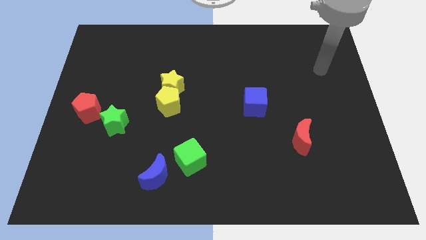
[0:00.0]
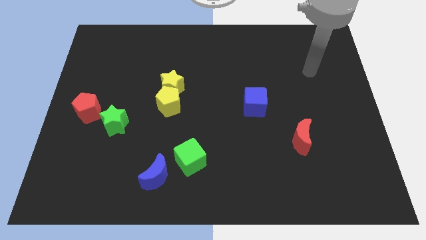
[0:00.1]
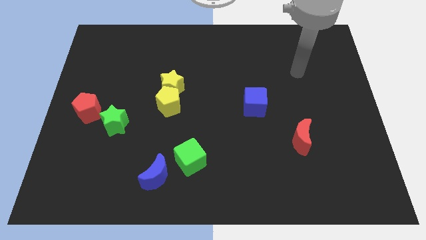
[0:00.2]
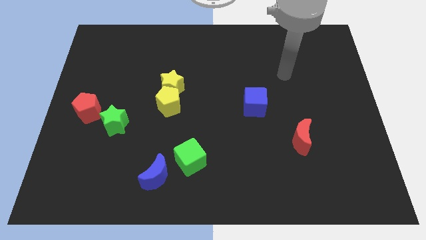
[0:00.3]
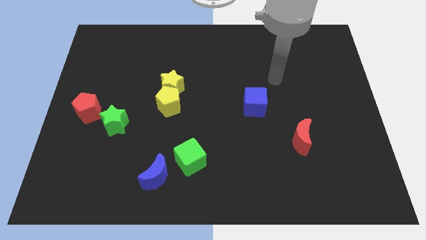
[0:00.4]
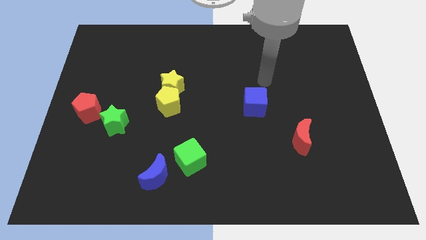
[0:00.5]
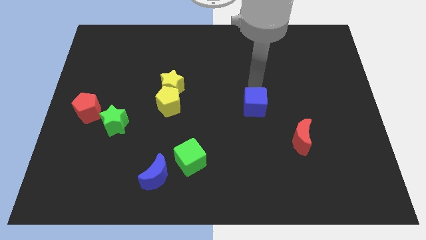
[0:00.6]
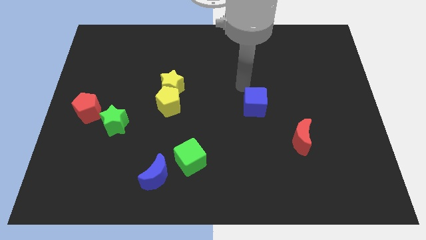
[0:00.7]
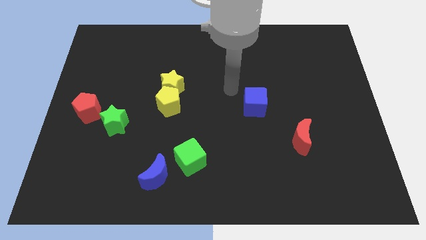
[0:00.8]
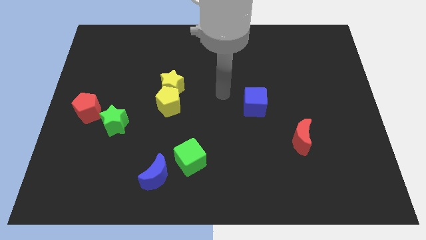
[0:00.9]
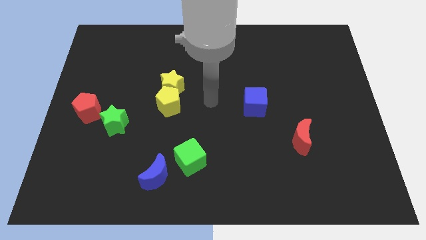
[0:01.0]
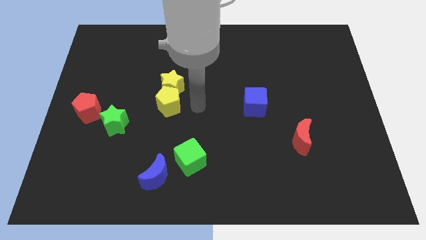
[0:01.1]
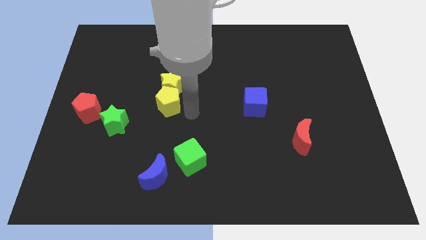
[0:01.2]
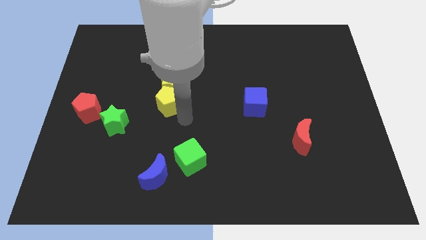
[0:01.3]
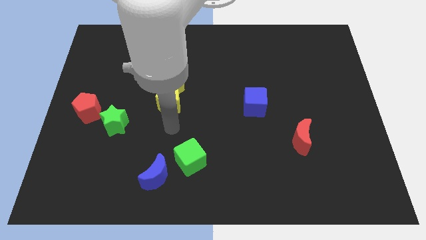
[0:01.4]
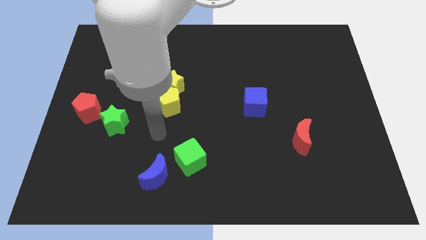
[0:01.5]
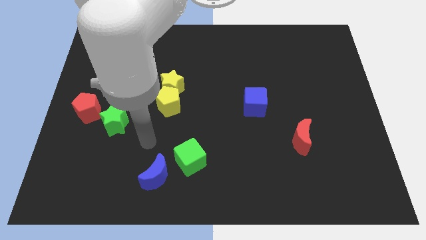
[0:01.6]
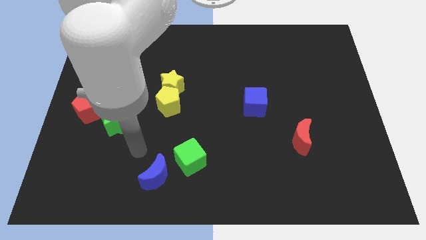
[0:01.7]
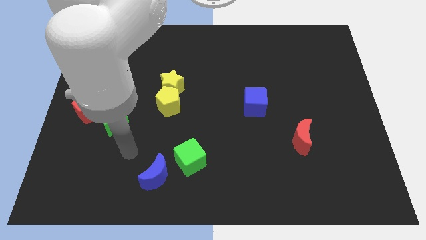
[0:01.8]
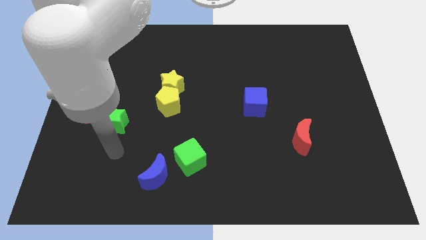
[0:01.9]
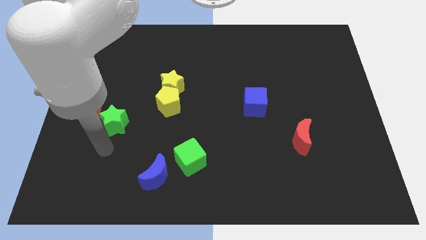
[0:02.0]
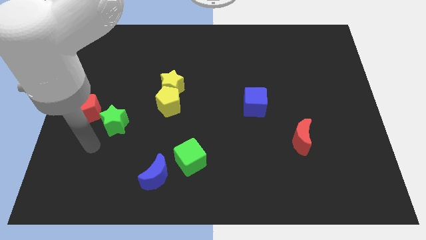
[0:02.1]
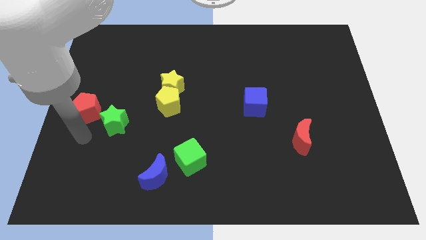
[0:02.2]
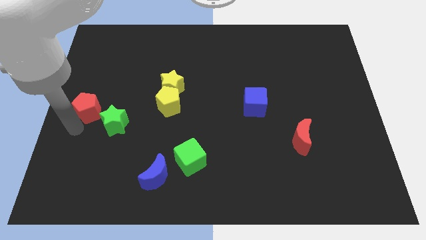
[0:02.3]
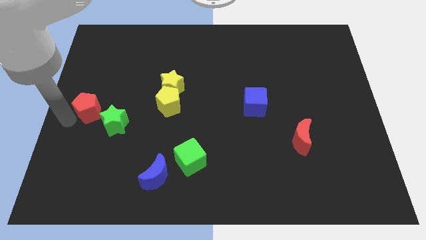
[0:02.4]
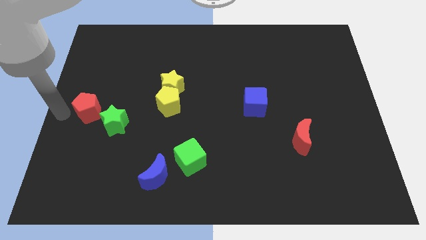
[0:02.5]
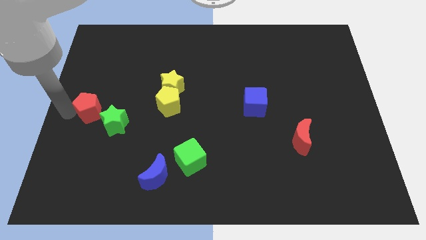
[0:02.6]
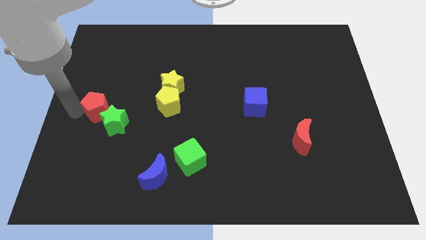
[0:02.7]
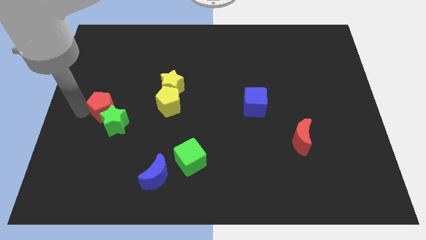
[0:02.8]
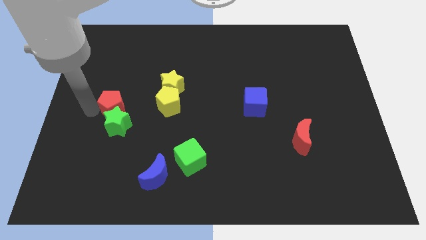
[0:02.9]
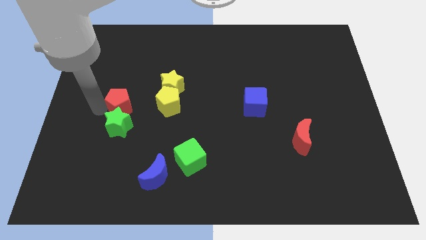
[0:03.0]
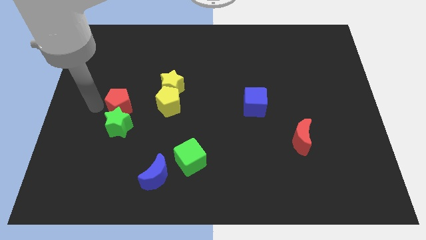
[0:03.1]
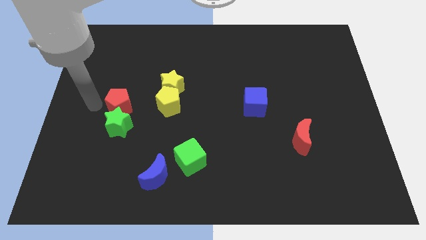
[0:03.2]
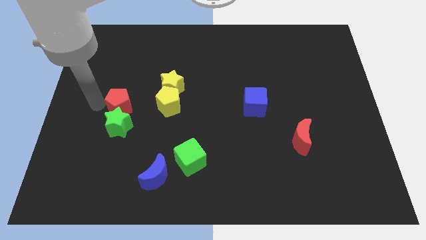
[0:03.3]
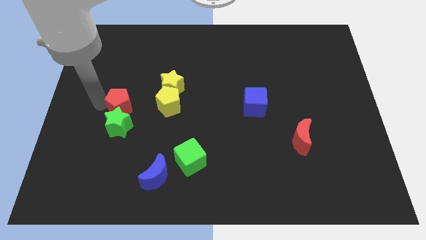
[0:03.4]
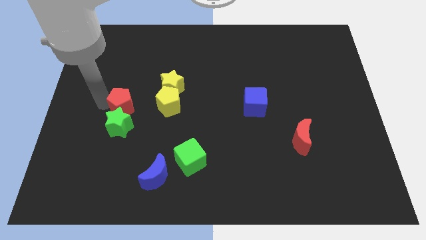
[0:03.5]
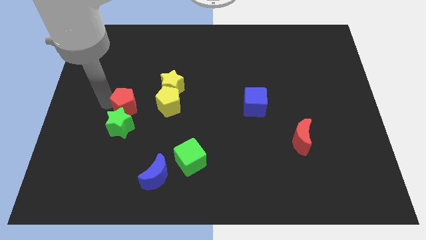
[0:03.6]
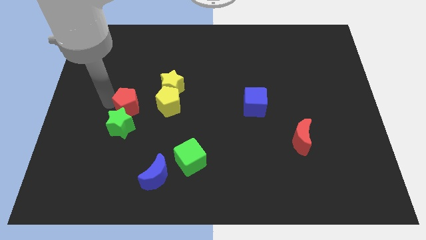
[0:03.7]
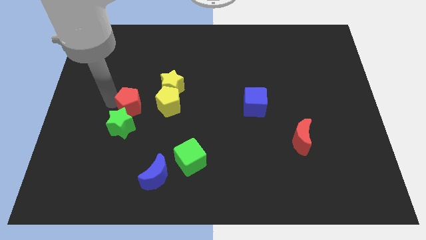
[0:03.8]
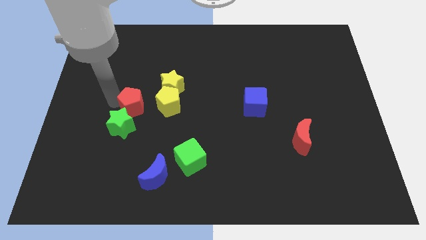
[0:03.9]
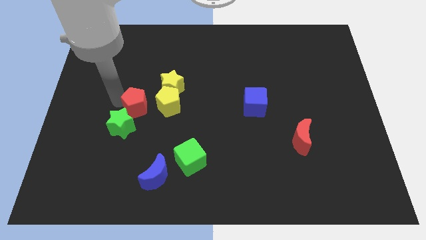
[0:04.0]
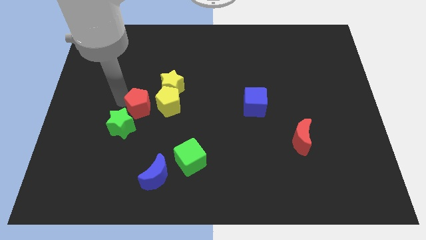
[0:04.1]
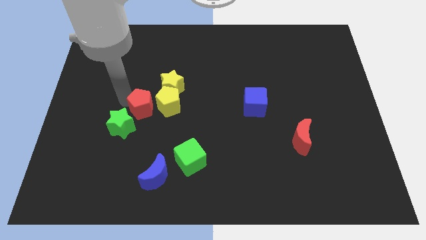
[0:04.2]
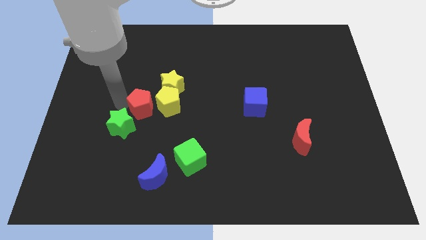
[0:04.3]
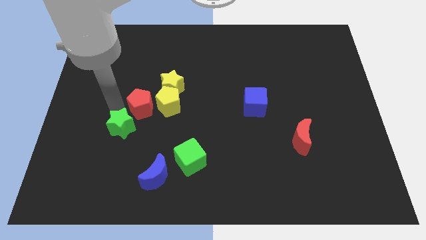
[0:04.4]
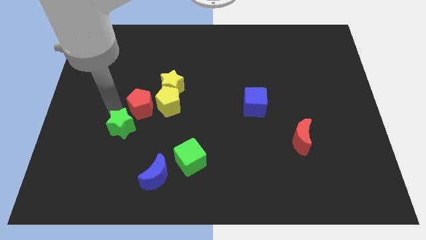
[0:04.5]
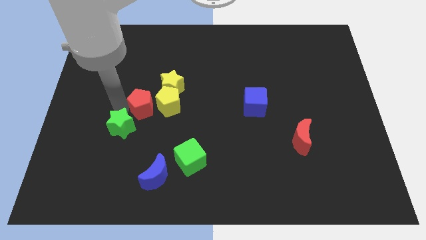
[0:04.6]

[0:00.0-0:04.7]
slide the red pentagon towards the yellow pentagon

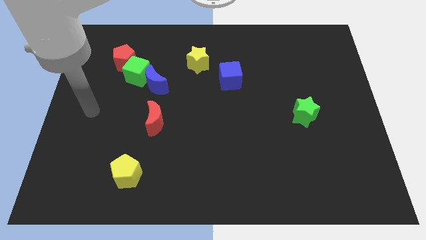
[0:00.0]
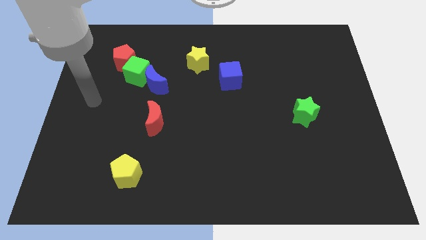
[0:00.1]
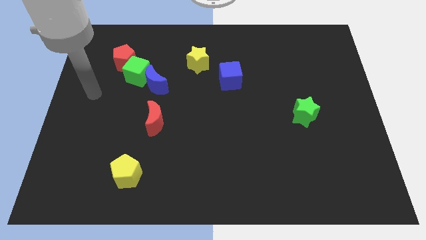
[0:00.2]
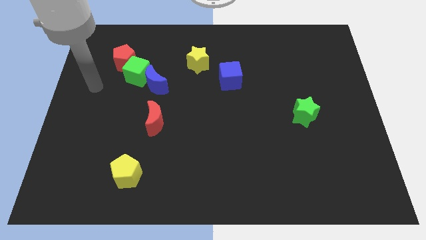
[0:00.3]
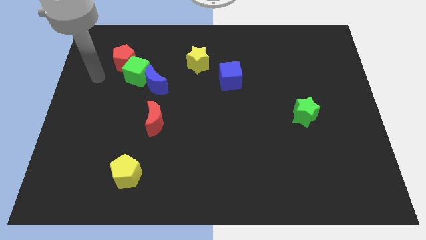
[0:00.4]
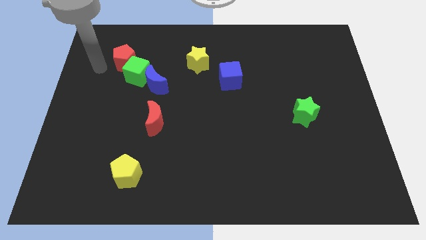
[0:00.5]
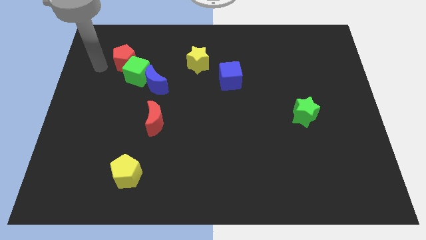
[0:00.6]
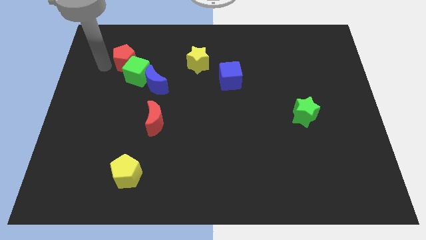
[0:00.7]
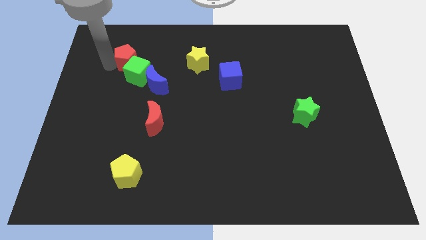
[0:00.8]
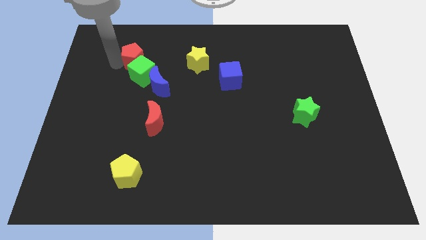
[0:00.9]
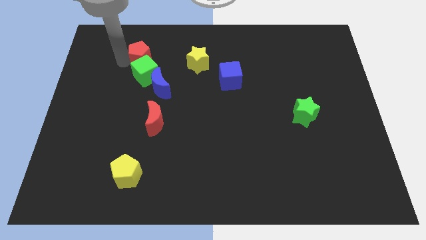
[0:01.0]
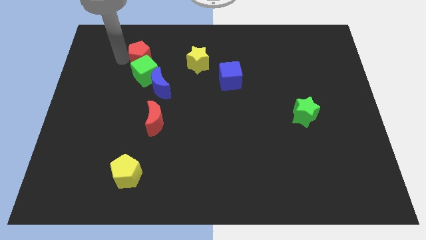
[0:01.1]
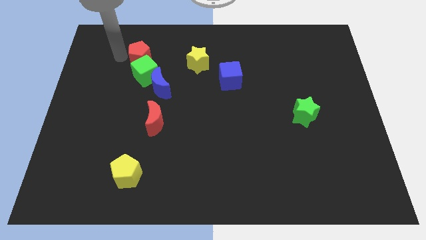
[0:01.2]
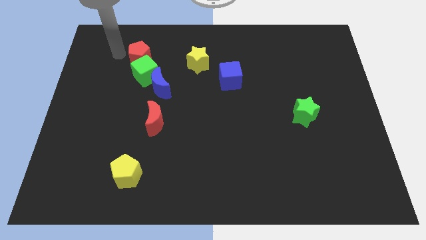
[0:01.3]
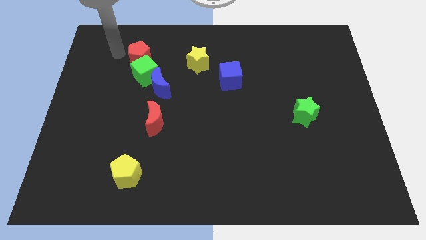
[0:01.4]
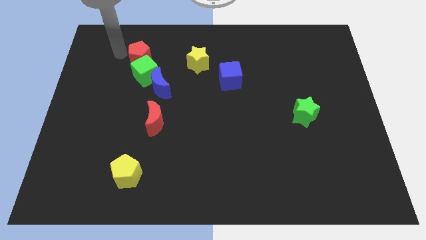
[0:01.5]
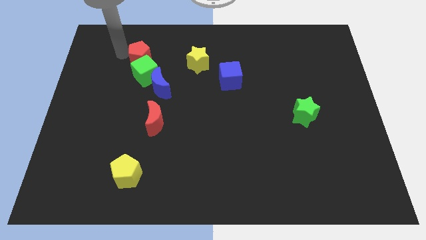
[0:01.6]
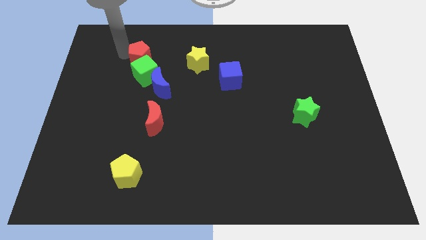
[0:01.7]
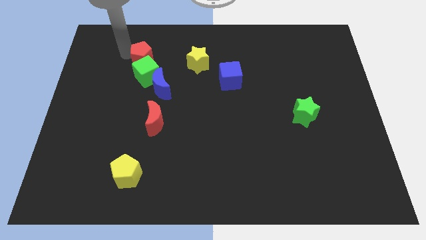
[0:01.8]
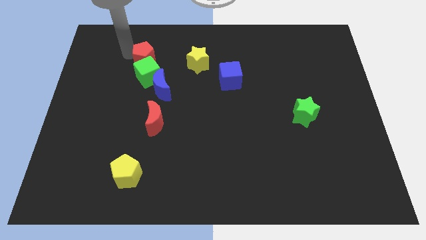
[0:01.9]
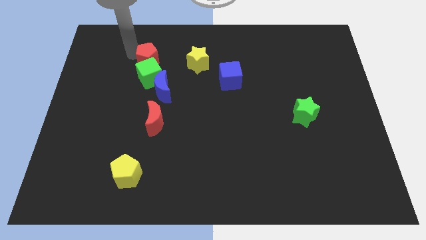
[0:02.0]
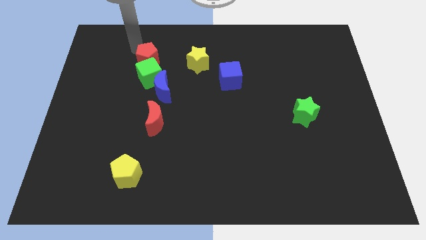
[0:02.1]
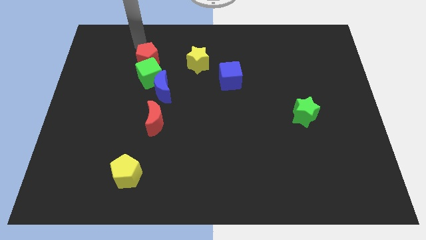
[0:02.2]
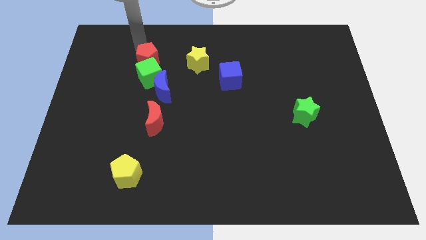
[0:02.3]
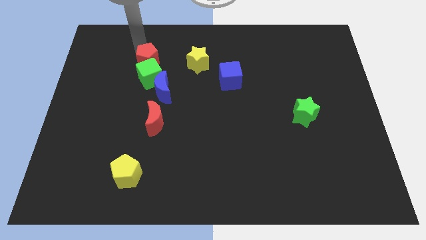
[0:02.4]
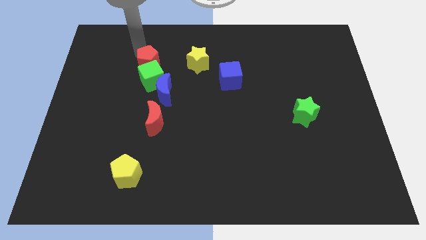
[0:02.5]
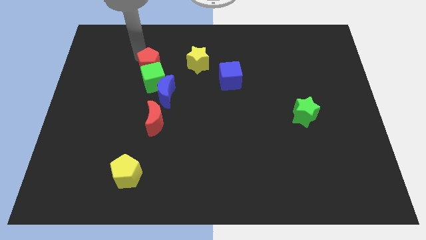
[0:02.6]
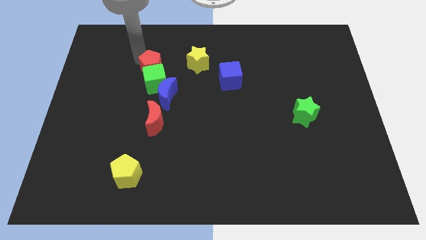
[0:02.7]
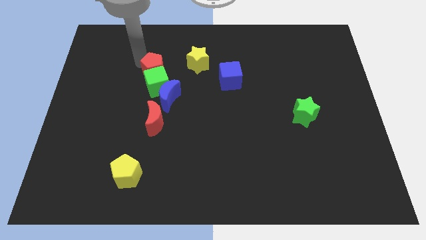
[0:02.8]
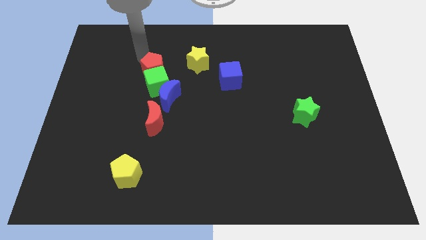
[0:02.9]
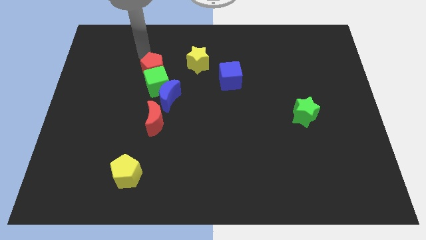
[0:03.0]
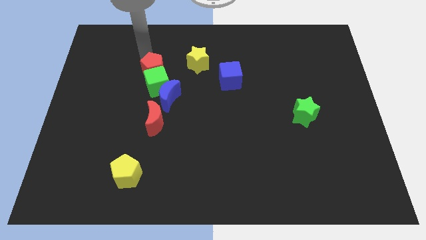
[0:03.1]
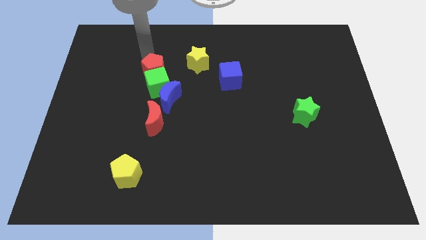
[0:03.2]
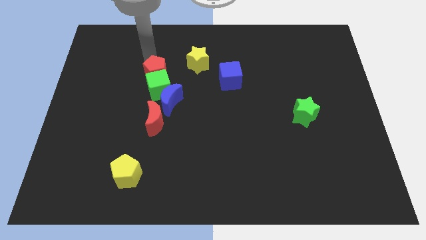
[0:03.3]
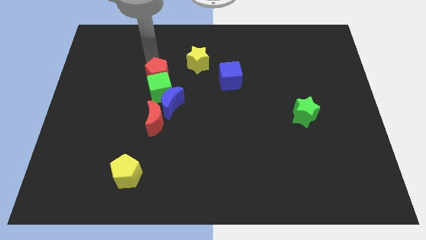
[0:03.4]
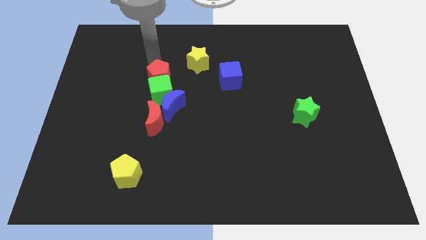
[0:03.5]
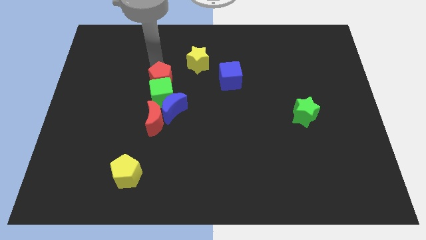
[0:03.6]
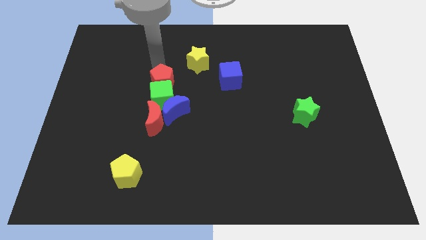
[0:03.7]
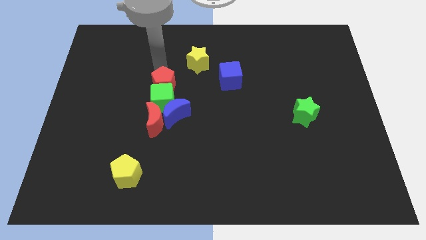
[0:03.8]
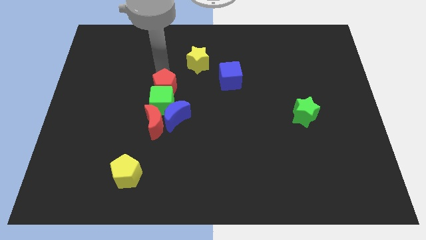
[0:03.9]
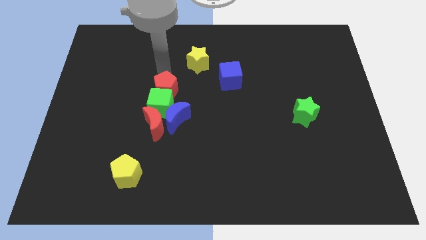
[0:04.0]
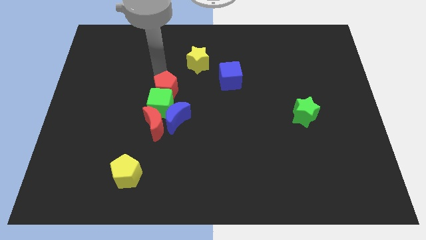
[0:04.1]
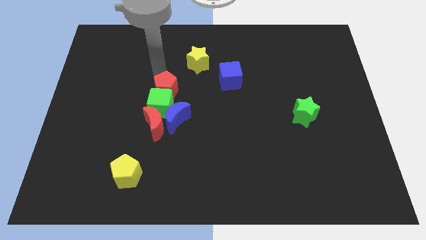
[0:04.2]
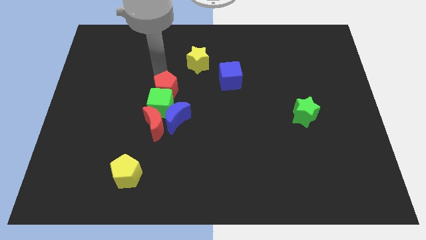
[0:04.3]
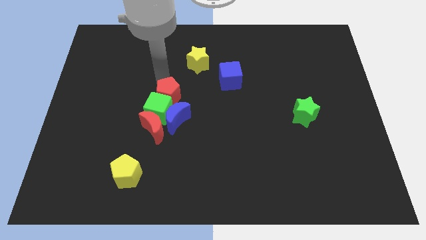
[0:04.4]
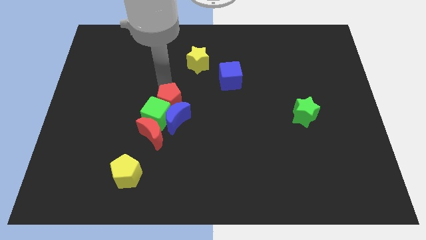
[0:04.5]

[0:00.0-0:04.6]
push the red pentagon towards the blue moon
